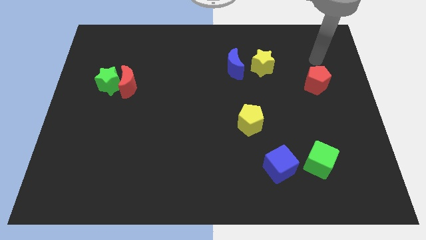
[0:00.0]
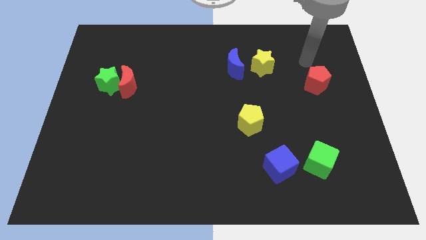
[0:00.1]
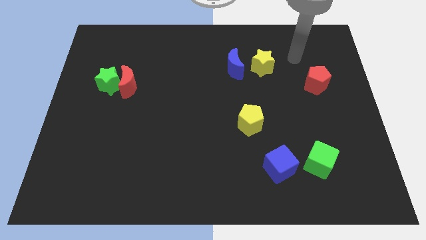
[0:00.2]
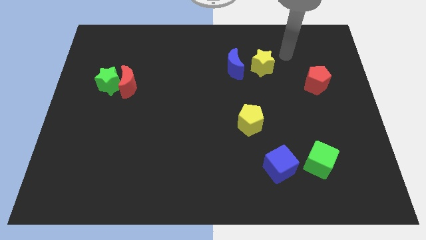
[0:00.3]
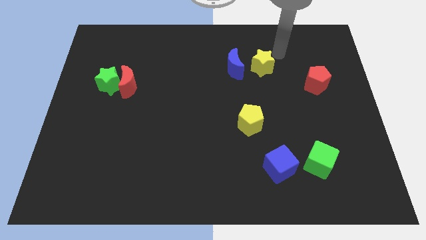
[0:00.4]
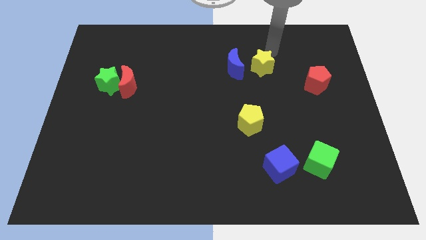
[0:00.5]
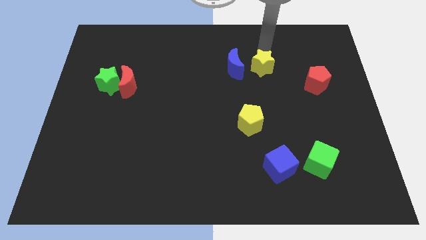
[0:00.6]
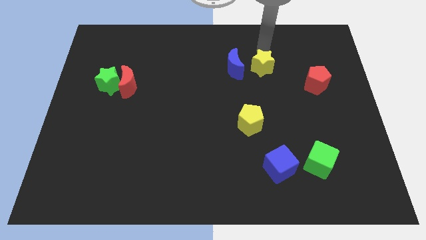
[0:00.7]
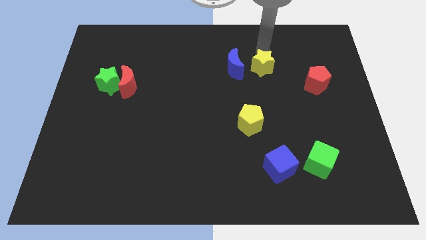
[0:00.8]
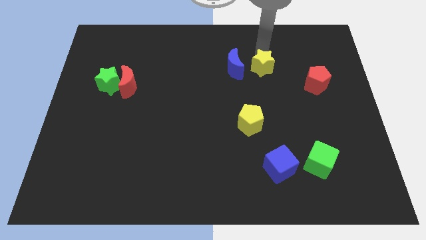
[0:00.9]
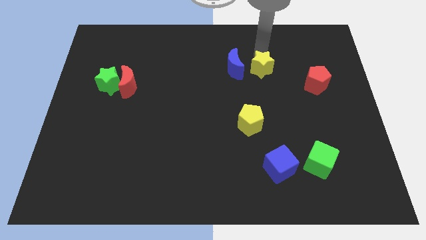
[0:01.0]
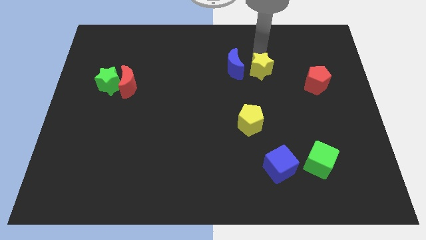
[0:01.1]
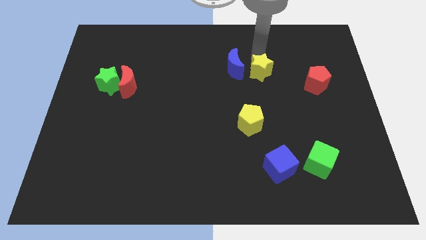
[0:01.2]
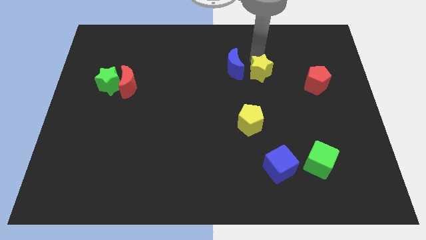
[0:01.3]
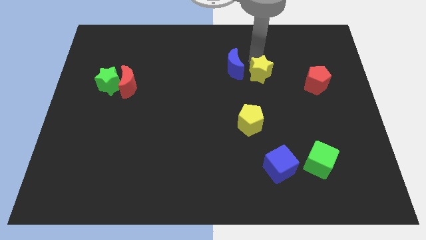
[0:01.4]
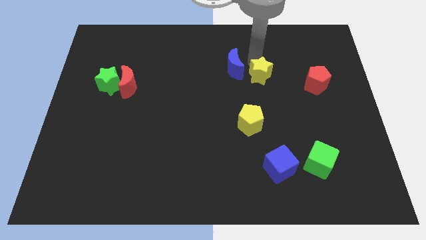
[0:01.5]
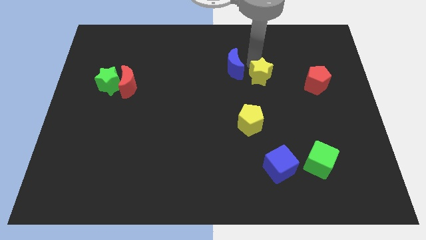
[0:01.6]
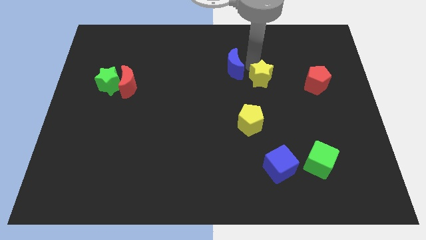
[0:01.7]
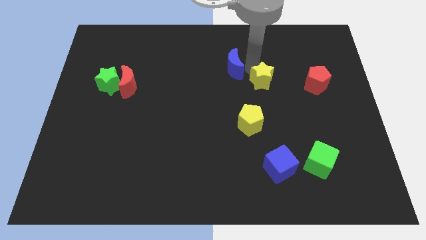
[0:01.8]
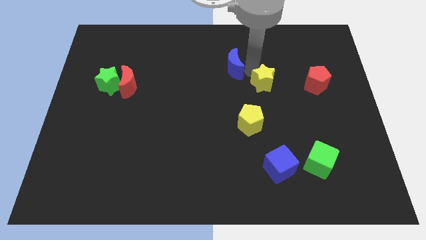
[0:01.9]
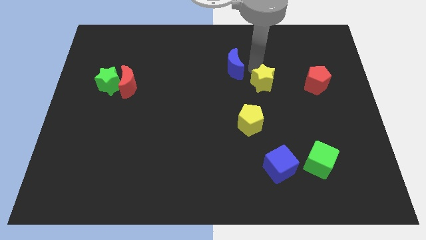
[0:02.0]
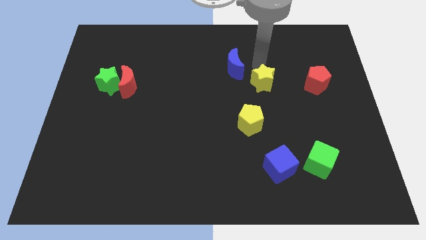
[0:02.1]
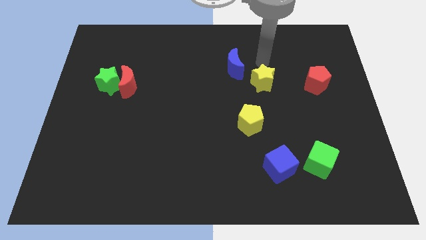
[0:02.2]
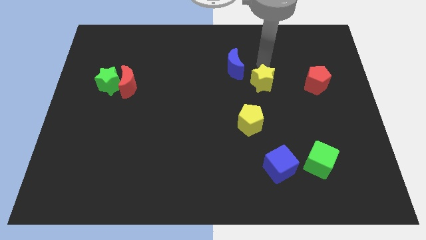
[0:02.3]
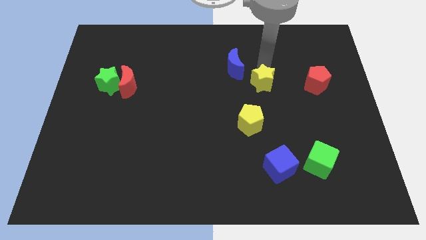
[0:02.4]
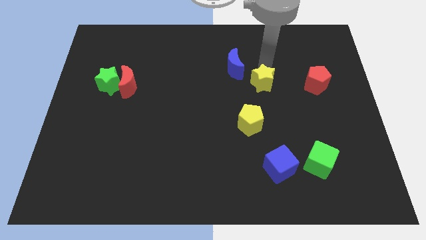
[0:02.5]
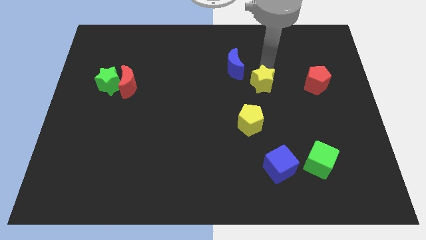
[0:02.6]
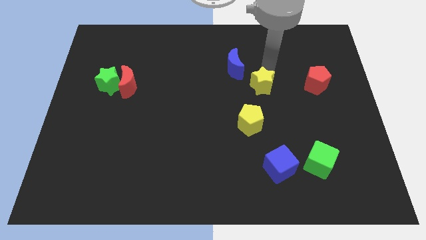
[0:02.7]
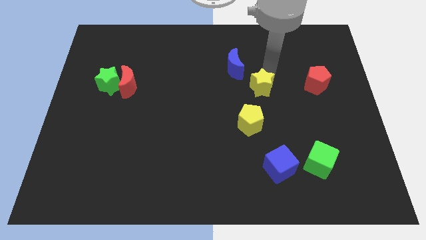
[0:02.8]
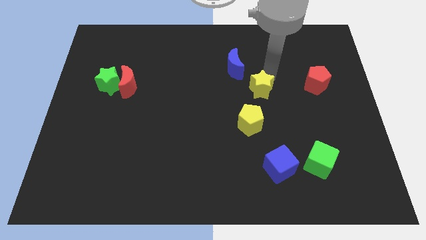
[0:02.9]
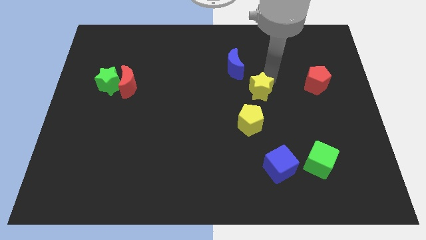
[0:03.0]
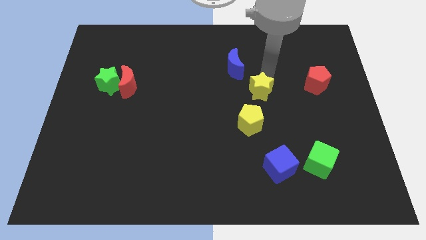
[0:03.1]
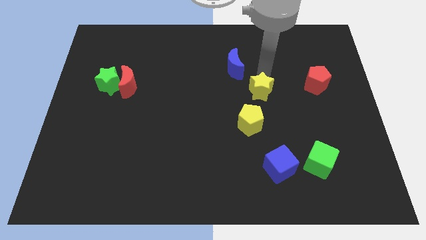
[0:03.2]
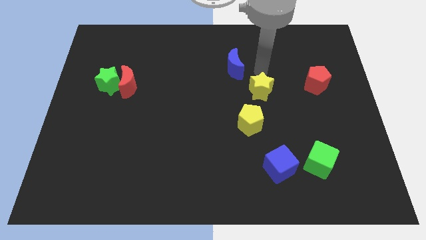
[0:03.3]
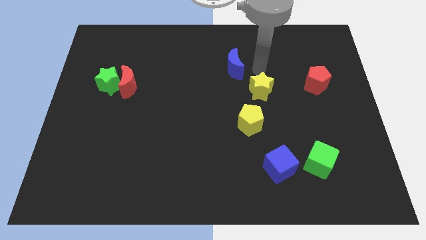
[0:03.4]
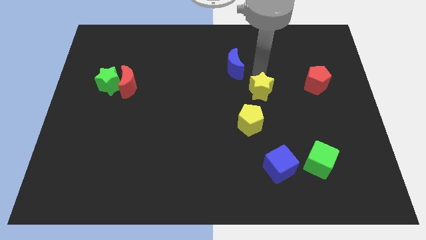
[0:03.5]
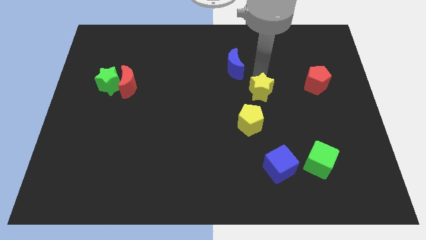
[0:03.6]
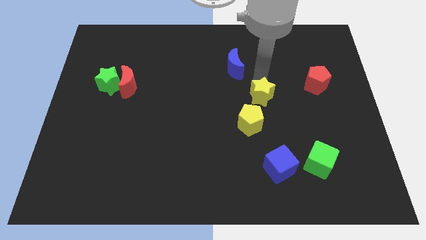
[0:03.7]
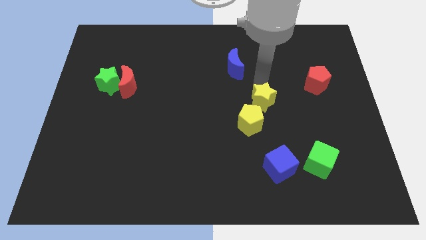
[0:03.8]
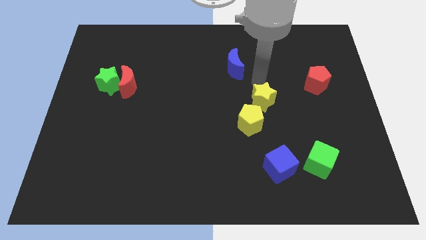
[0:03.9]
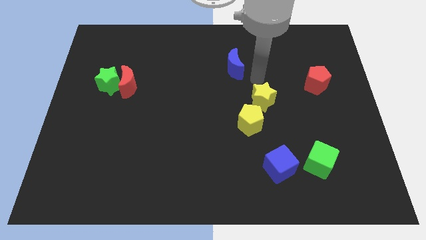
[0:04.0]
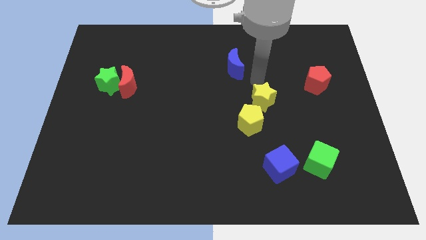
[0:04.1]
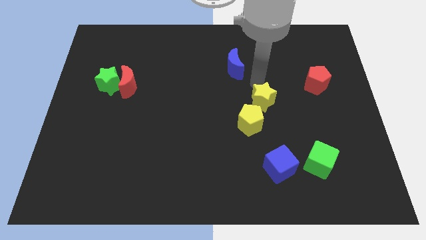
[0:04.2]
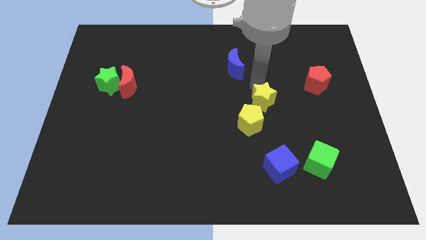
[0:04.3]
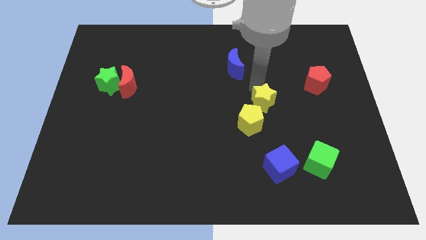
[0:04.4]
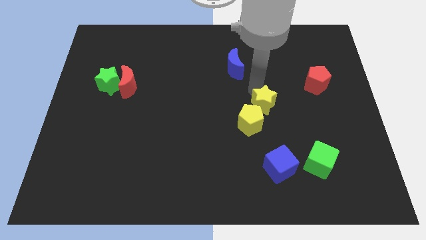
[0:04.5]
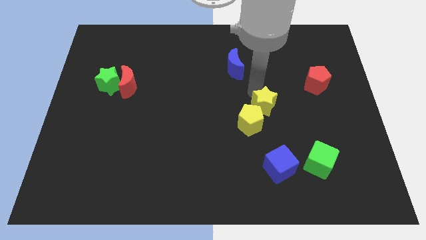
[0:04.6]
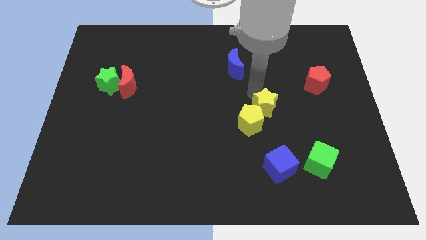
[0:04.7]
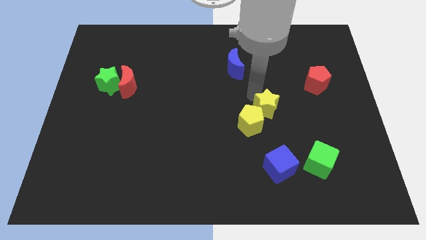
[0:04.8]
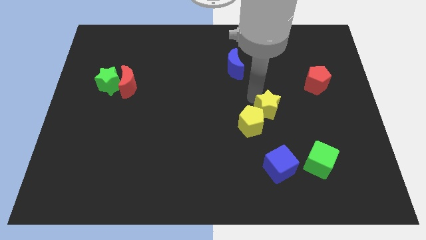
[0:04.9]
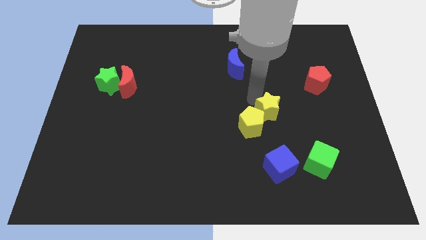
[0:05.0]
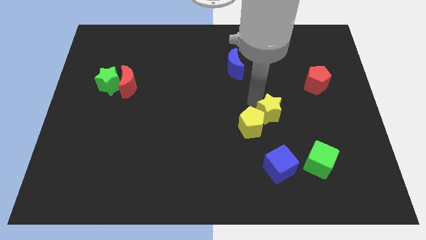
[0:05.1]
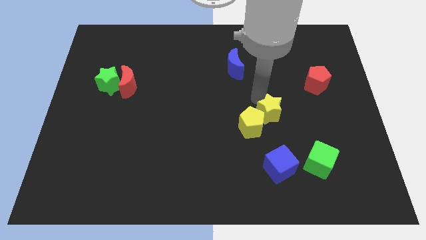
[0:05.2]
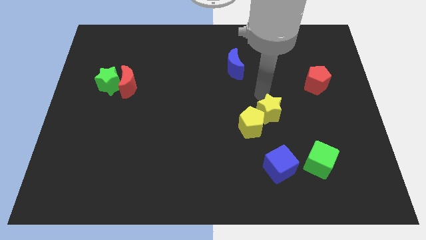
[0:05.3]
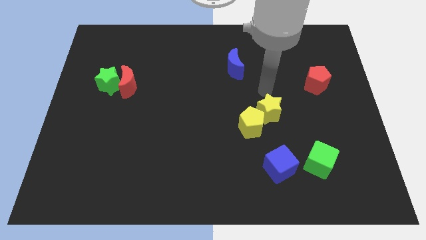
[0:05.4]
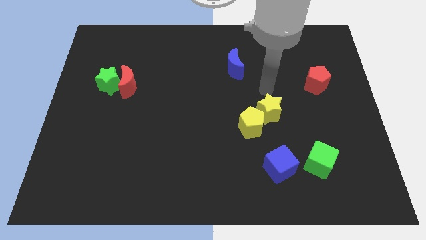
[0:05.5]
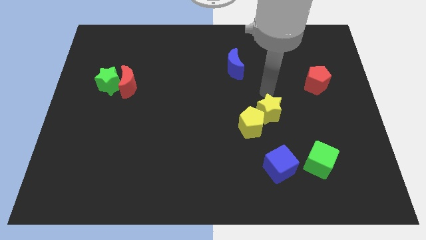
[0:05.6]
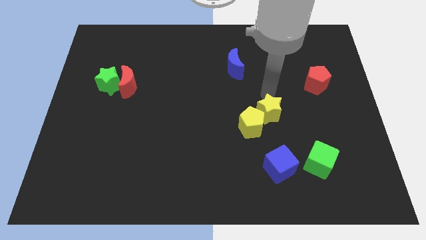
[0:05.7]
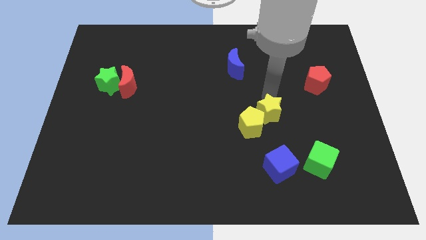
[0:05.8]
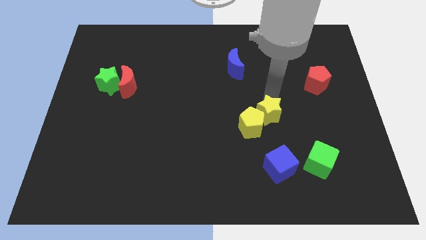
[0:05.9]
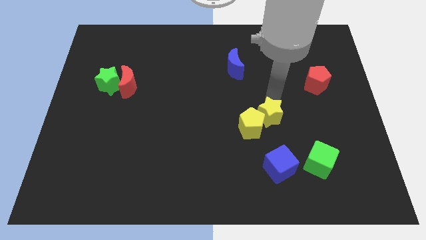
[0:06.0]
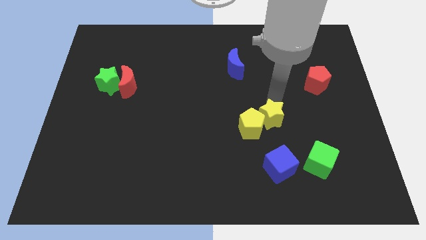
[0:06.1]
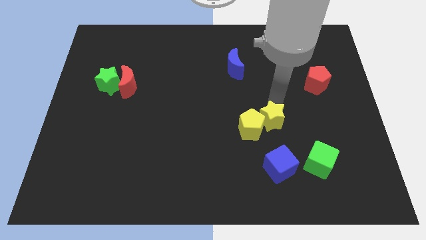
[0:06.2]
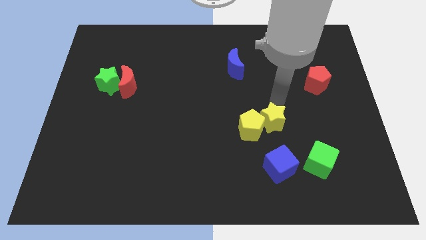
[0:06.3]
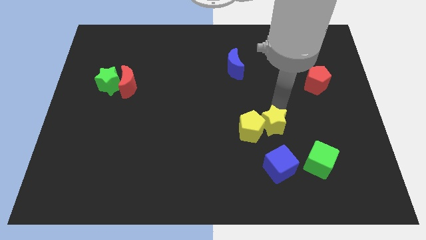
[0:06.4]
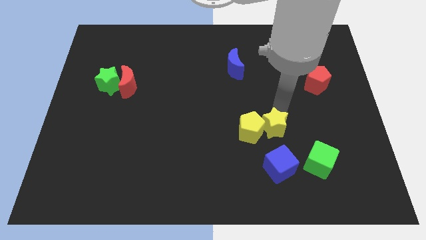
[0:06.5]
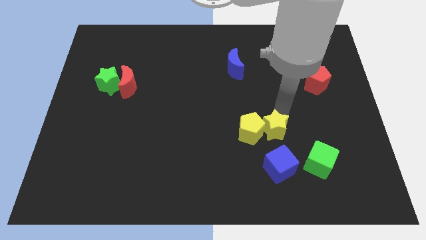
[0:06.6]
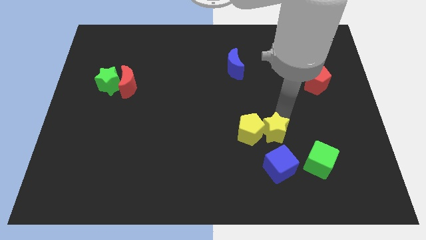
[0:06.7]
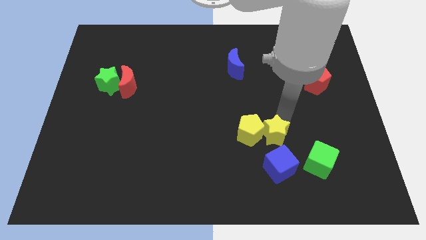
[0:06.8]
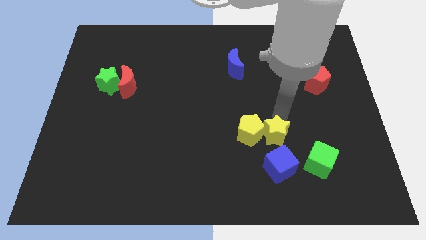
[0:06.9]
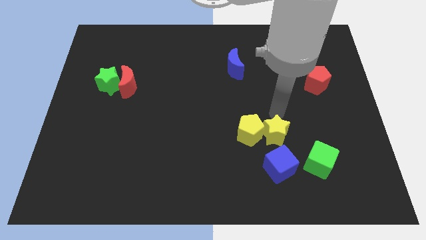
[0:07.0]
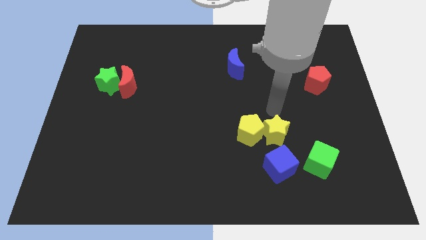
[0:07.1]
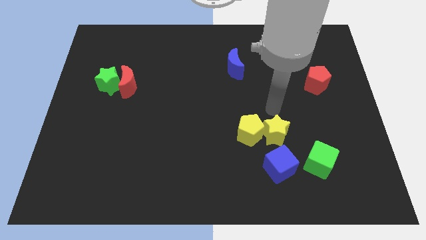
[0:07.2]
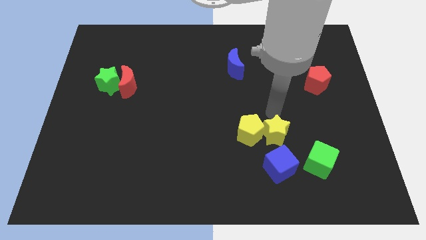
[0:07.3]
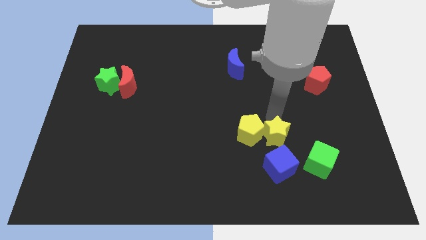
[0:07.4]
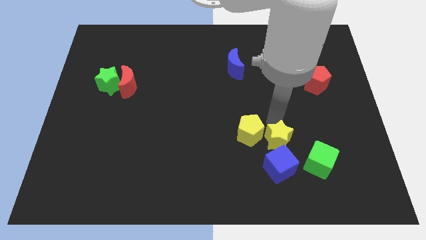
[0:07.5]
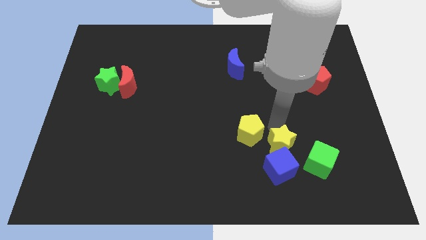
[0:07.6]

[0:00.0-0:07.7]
push the yellow star towards the blue cube
